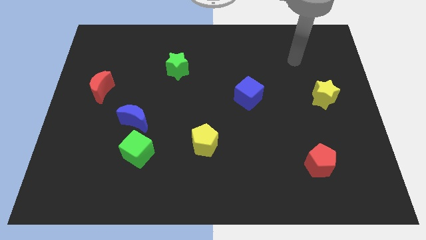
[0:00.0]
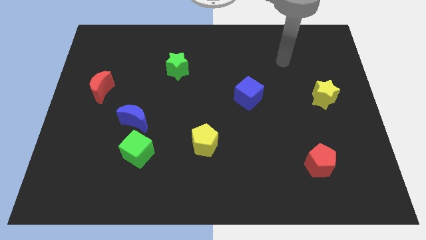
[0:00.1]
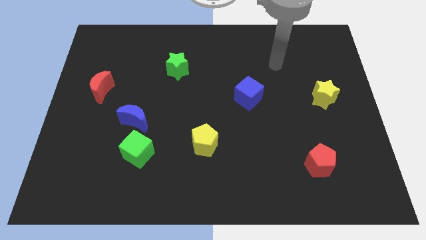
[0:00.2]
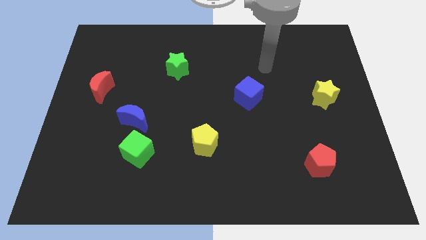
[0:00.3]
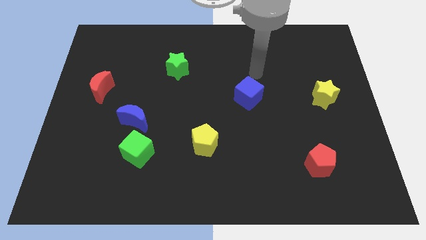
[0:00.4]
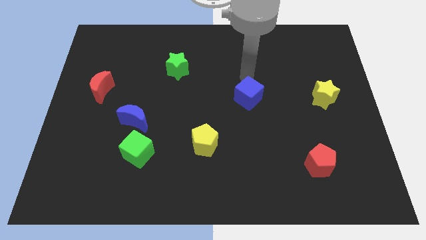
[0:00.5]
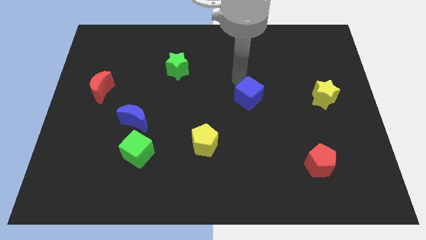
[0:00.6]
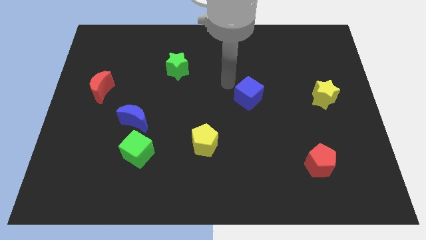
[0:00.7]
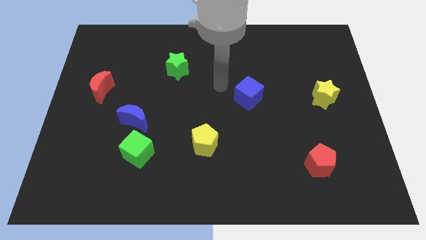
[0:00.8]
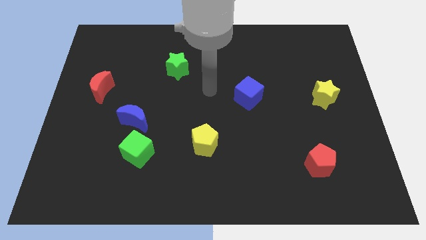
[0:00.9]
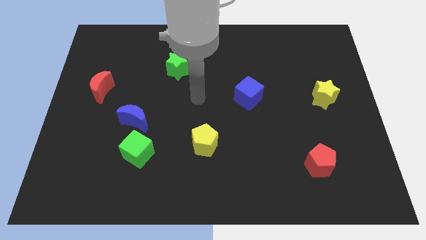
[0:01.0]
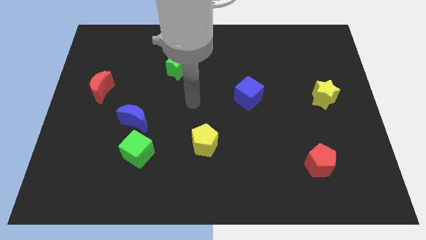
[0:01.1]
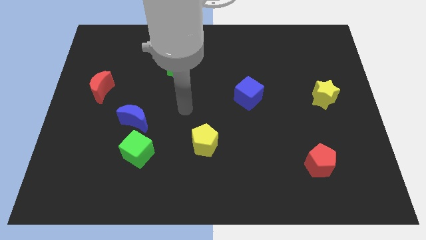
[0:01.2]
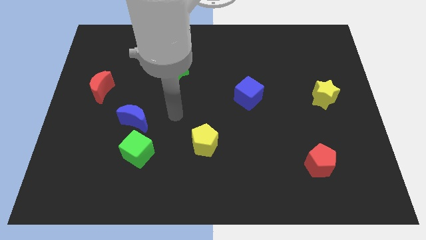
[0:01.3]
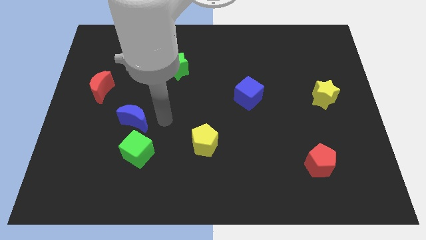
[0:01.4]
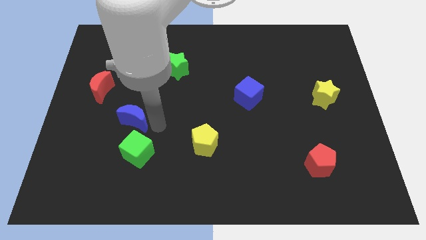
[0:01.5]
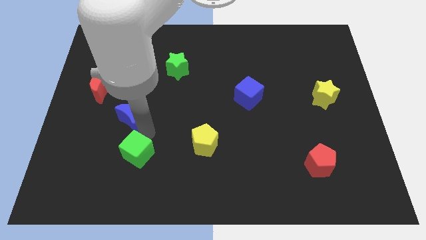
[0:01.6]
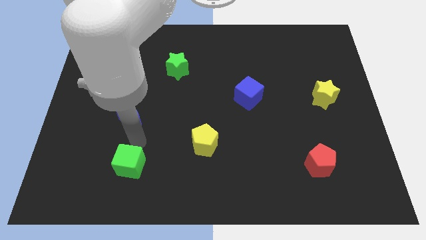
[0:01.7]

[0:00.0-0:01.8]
move the blue moon away from the green cube

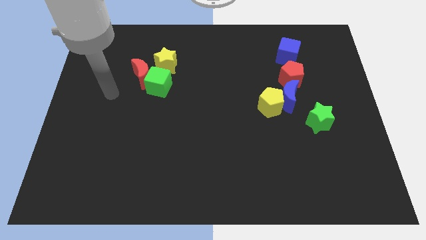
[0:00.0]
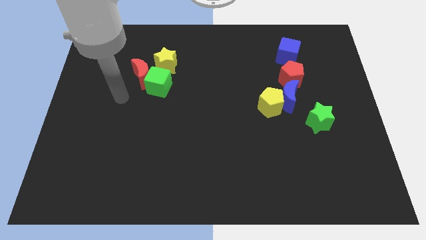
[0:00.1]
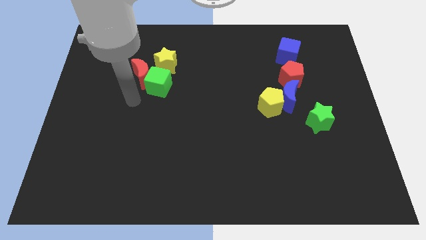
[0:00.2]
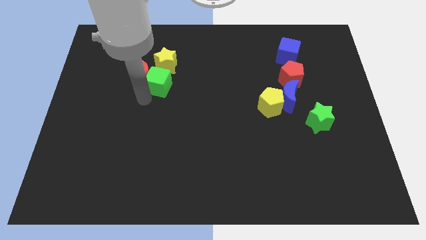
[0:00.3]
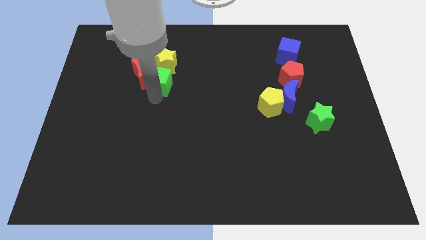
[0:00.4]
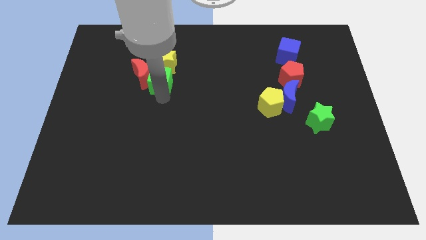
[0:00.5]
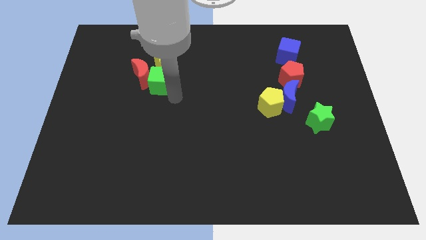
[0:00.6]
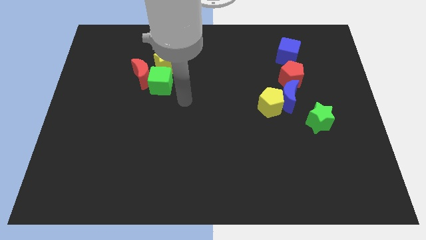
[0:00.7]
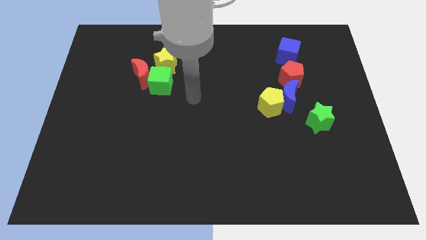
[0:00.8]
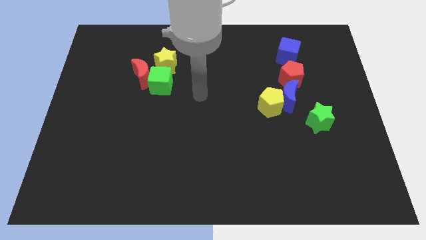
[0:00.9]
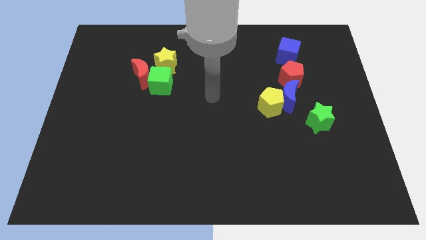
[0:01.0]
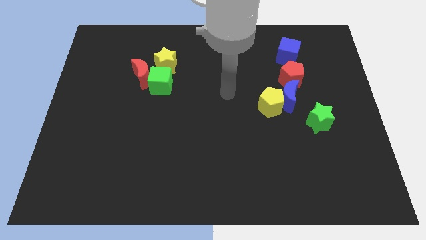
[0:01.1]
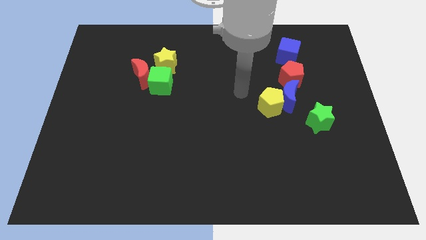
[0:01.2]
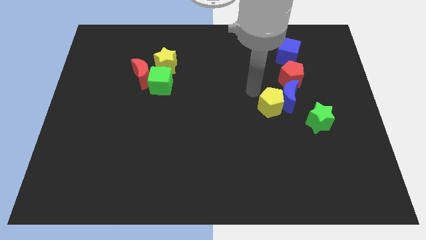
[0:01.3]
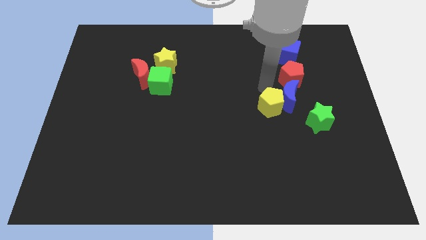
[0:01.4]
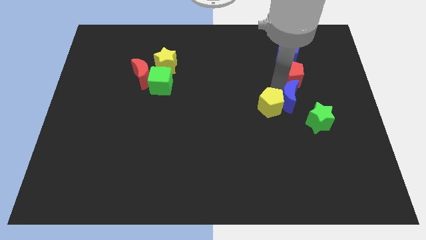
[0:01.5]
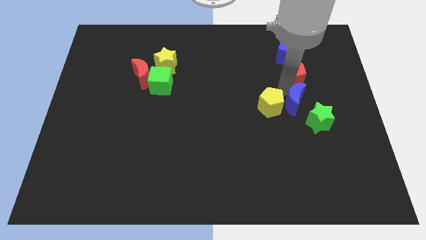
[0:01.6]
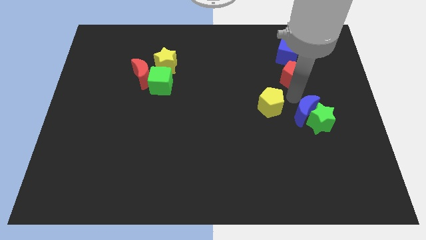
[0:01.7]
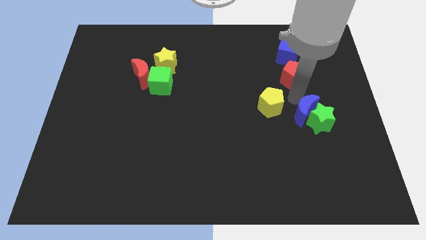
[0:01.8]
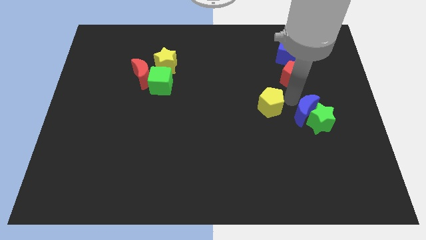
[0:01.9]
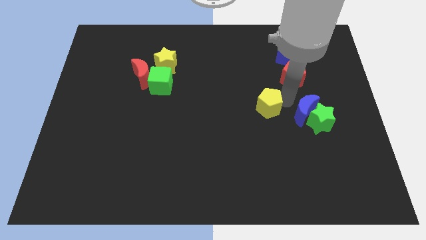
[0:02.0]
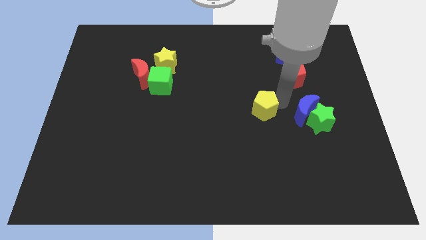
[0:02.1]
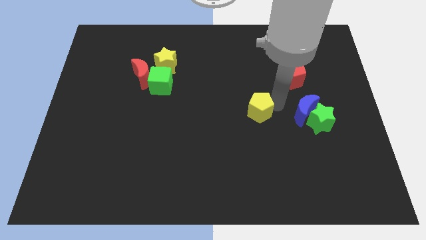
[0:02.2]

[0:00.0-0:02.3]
pull the yellow pentagon apart from the blue moon

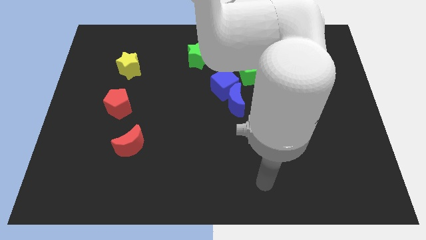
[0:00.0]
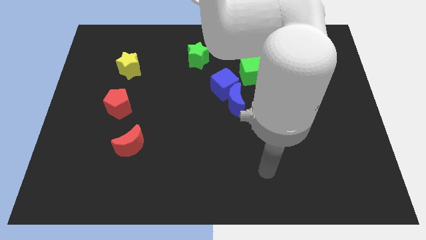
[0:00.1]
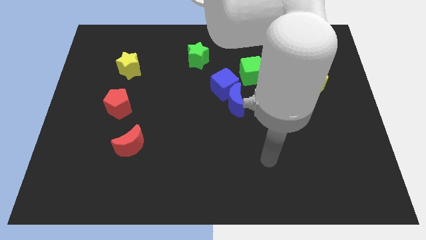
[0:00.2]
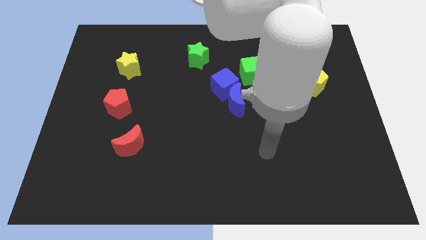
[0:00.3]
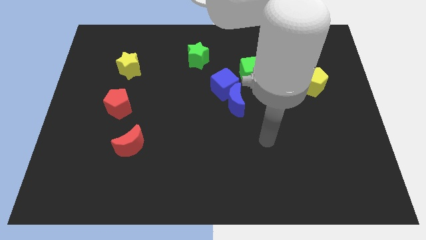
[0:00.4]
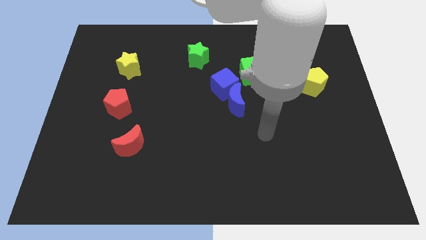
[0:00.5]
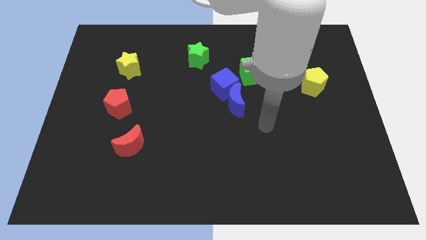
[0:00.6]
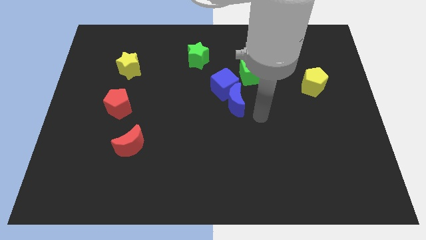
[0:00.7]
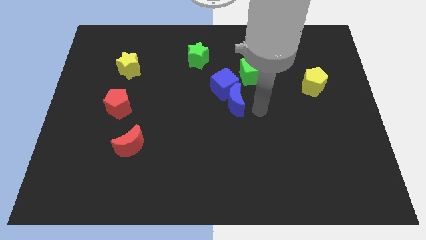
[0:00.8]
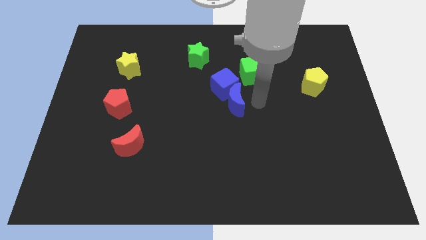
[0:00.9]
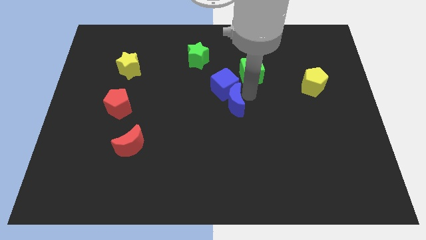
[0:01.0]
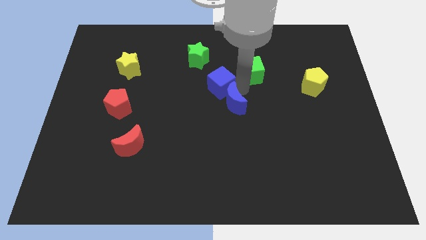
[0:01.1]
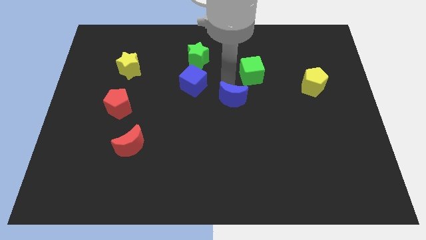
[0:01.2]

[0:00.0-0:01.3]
pull the blue moon apart from the blue cube

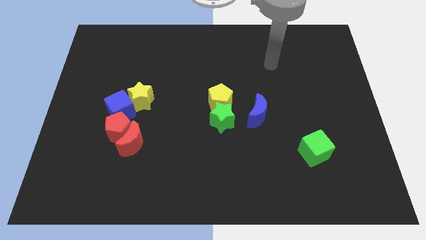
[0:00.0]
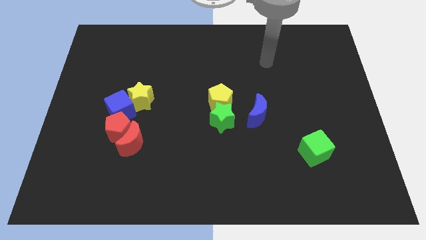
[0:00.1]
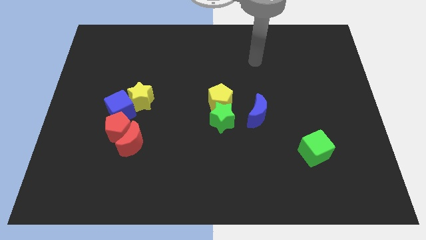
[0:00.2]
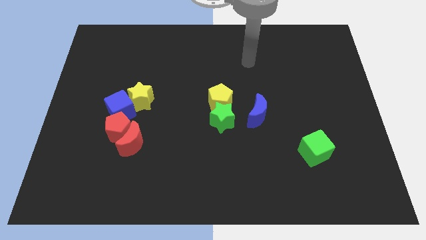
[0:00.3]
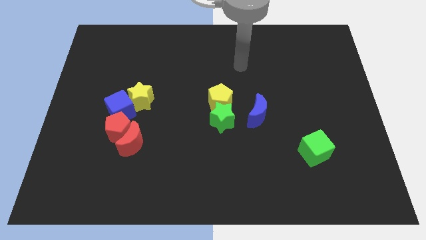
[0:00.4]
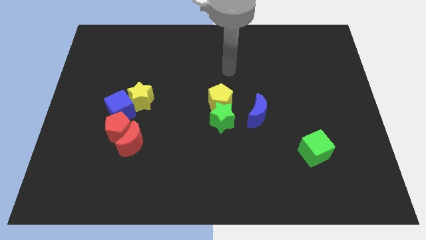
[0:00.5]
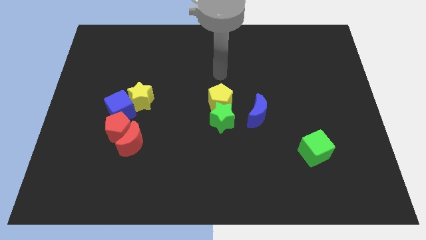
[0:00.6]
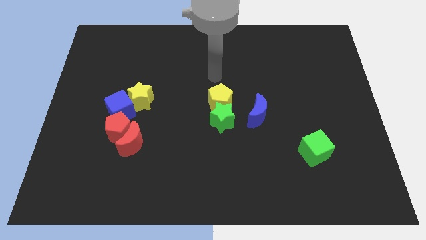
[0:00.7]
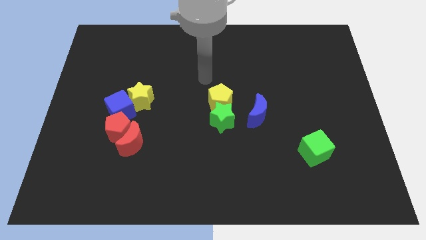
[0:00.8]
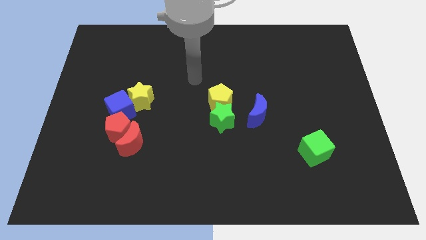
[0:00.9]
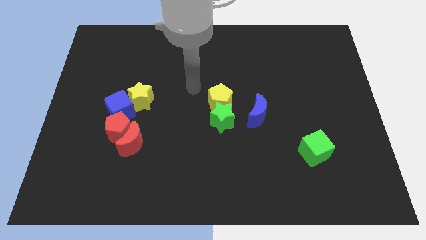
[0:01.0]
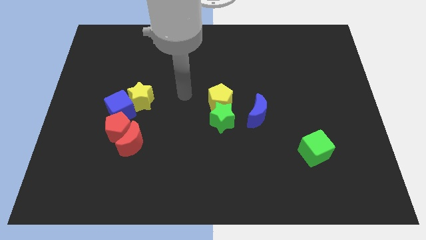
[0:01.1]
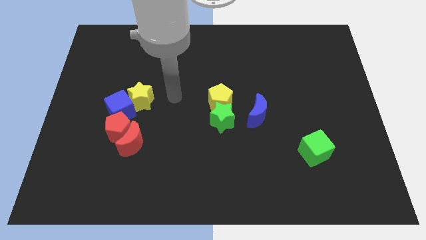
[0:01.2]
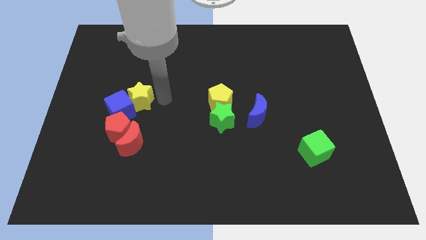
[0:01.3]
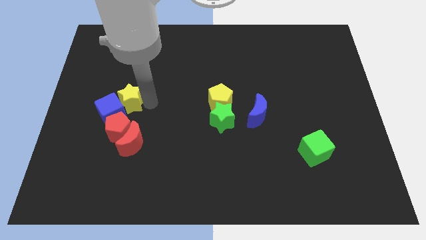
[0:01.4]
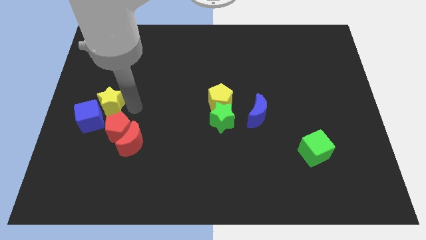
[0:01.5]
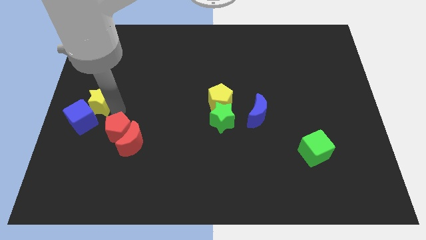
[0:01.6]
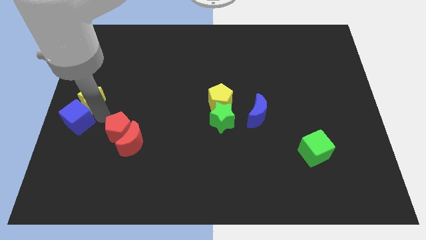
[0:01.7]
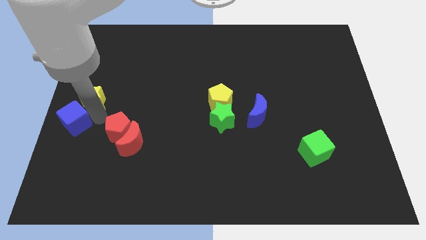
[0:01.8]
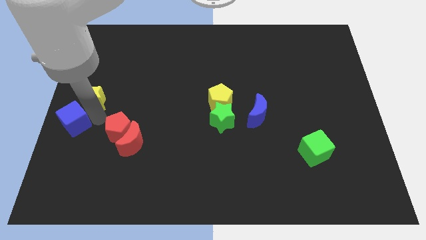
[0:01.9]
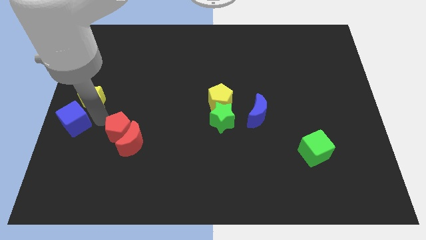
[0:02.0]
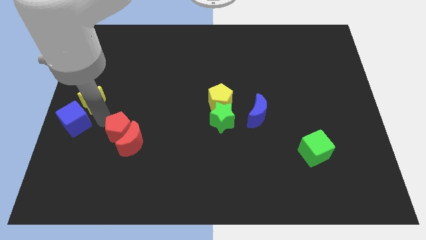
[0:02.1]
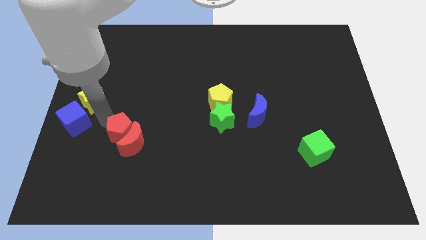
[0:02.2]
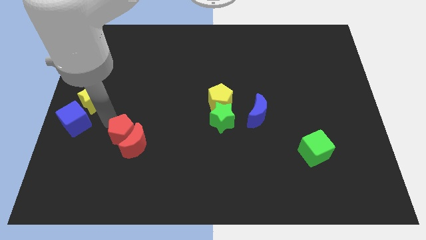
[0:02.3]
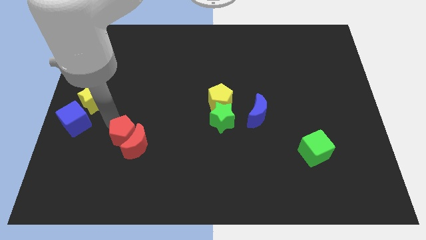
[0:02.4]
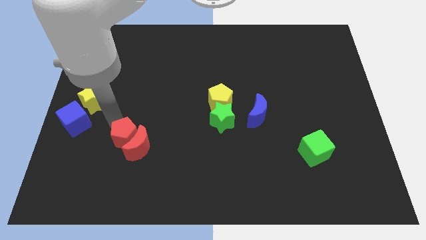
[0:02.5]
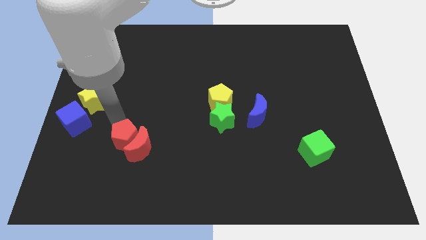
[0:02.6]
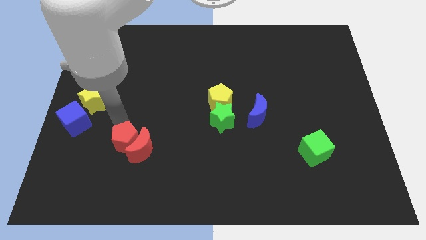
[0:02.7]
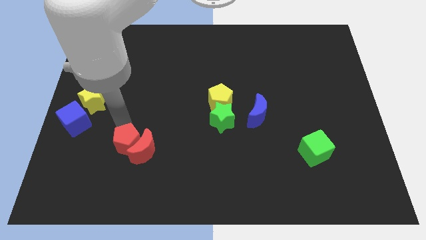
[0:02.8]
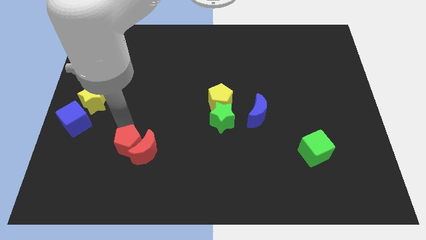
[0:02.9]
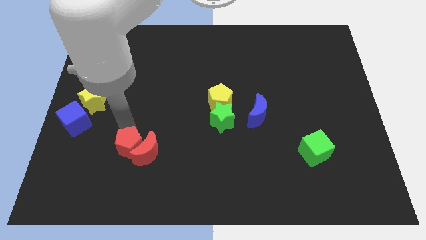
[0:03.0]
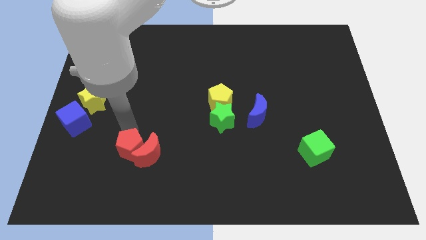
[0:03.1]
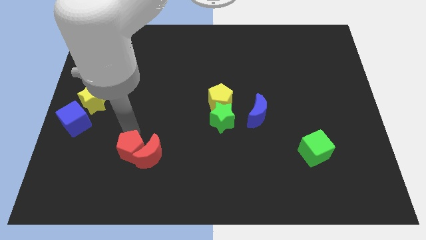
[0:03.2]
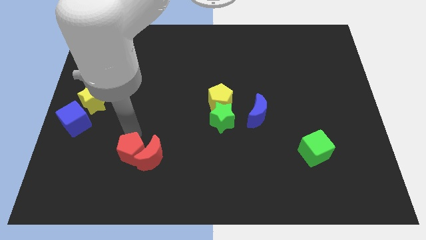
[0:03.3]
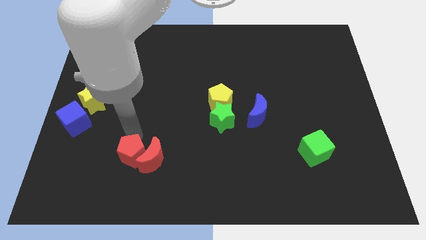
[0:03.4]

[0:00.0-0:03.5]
pull the red pentagon apart from the red moon, blue cube, and yellow star

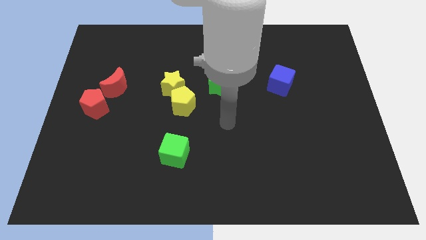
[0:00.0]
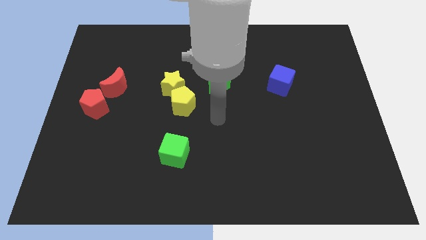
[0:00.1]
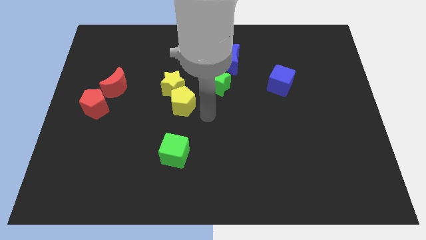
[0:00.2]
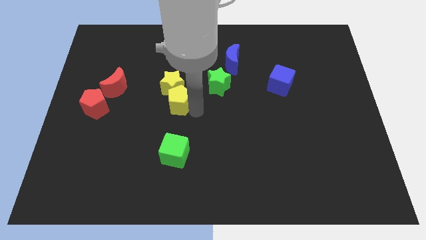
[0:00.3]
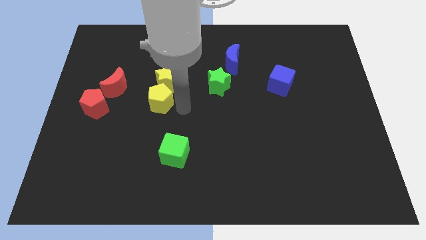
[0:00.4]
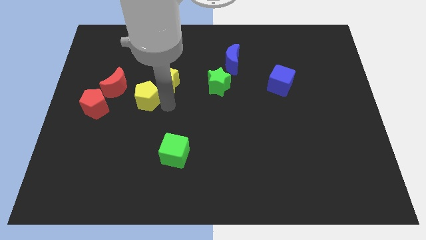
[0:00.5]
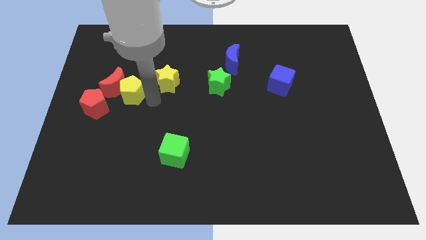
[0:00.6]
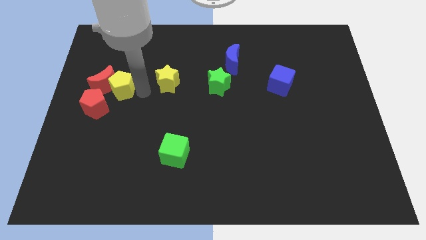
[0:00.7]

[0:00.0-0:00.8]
pull the yellow star apart from the yellow pentagon
